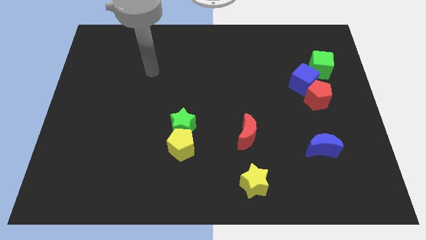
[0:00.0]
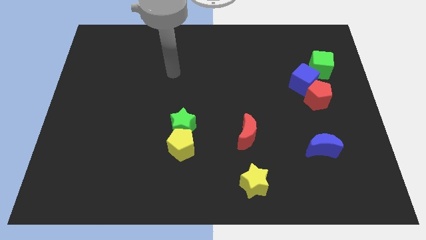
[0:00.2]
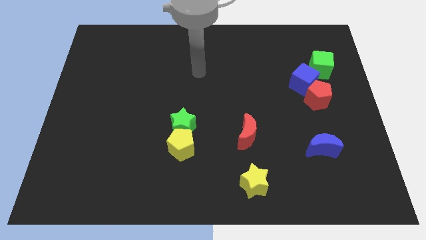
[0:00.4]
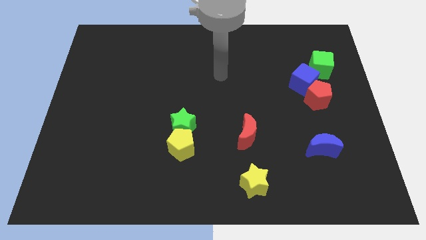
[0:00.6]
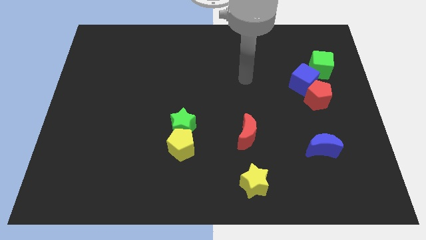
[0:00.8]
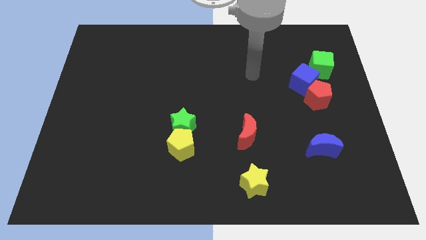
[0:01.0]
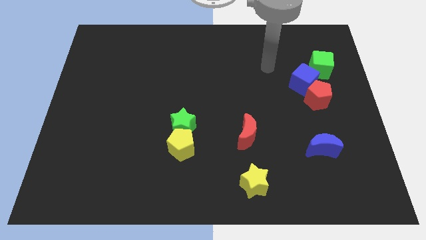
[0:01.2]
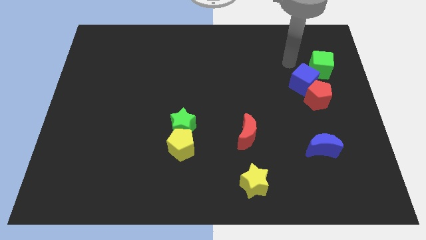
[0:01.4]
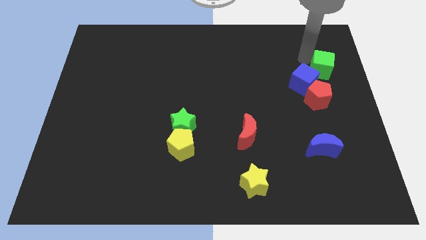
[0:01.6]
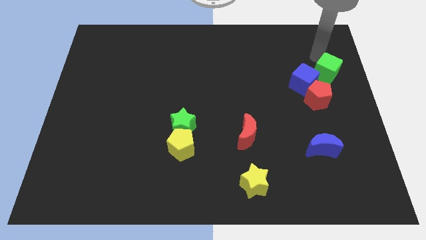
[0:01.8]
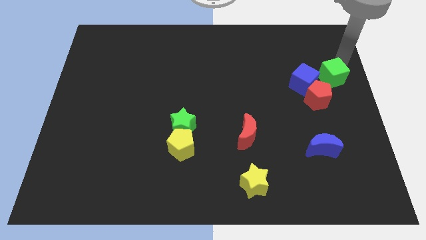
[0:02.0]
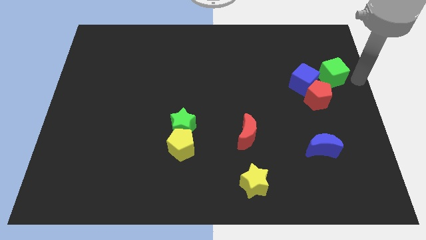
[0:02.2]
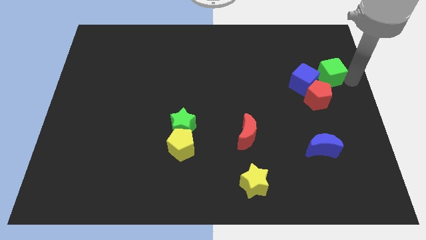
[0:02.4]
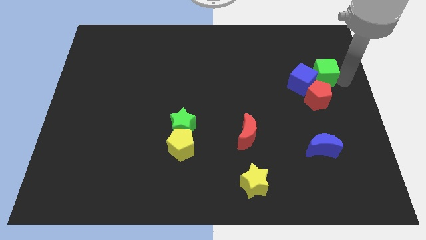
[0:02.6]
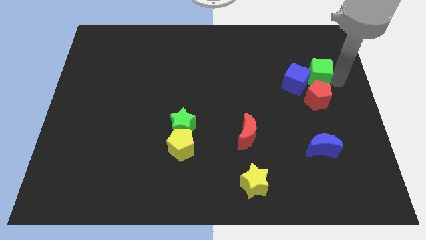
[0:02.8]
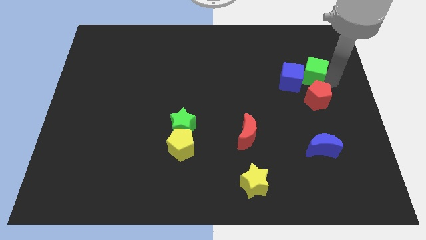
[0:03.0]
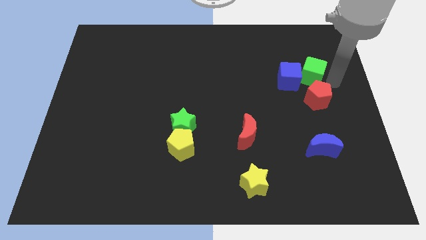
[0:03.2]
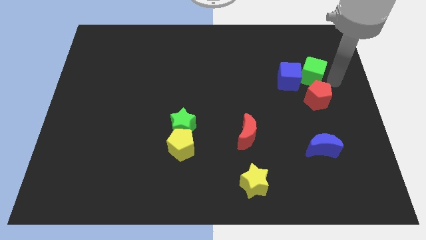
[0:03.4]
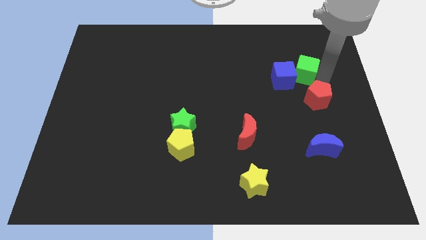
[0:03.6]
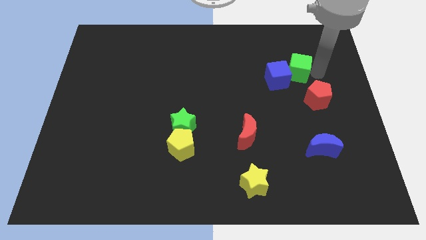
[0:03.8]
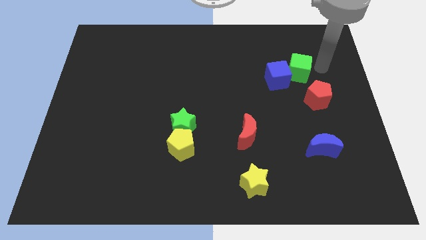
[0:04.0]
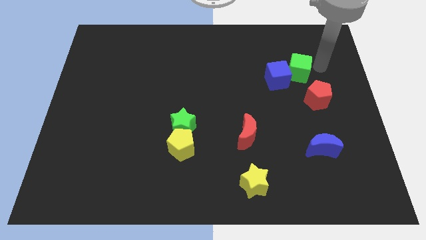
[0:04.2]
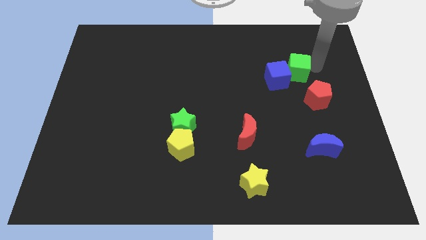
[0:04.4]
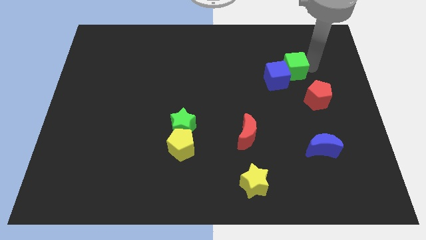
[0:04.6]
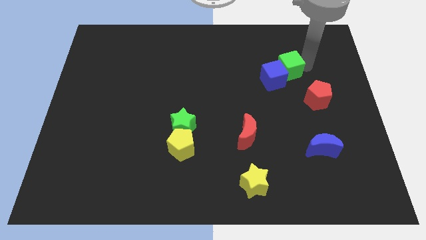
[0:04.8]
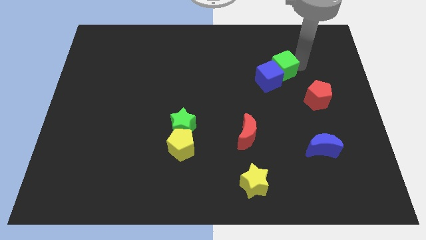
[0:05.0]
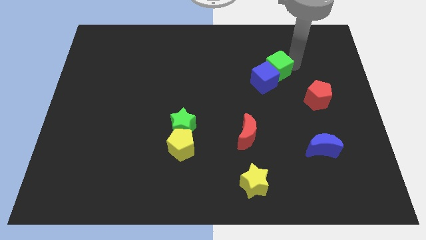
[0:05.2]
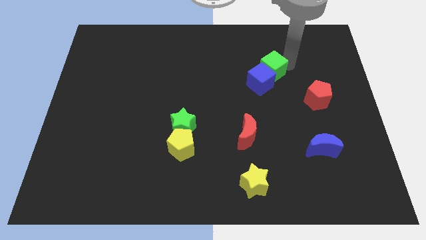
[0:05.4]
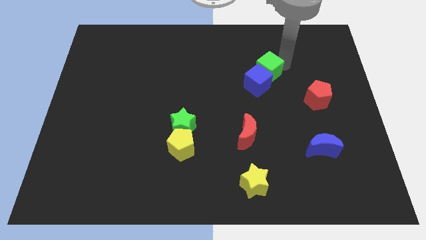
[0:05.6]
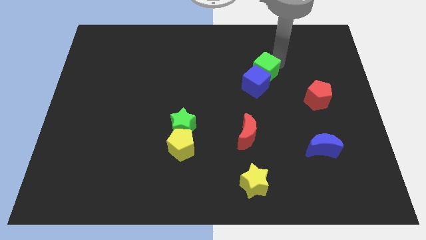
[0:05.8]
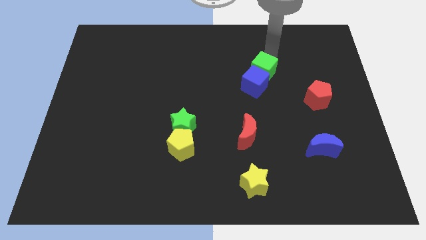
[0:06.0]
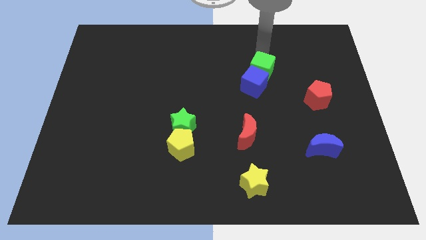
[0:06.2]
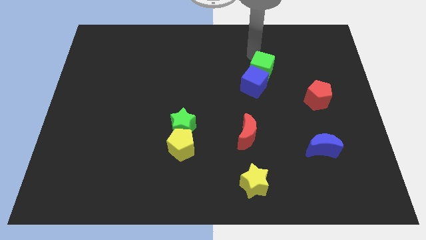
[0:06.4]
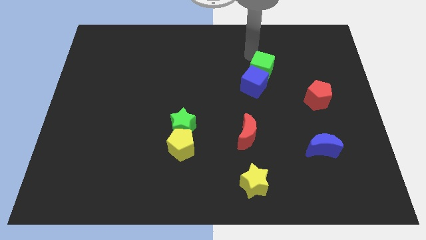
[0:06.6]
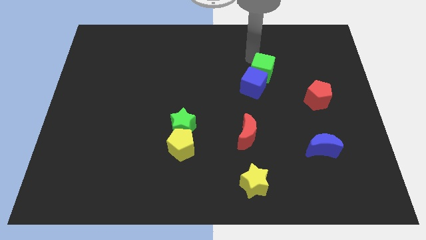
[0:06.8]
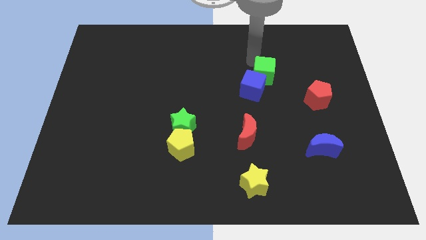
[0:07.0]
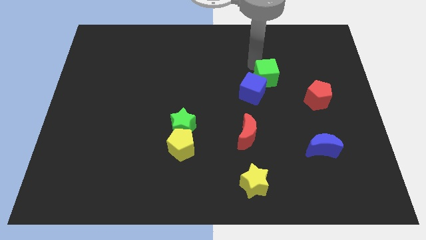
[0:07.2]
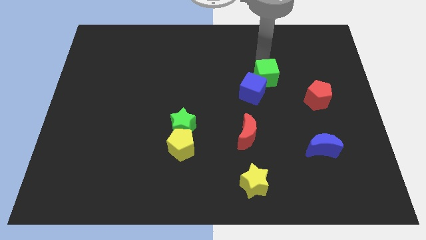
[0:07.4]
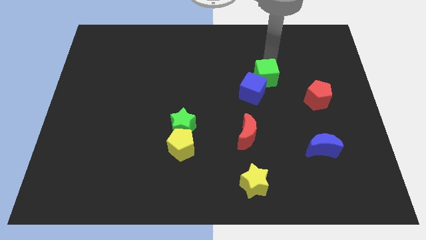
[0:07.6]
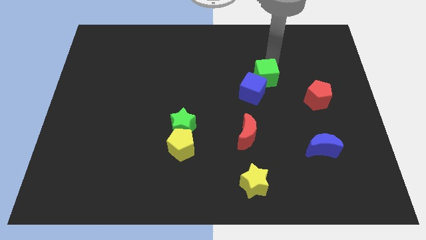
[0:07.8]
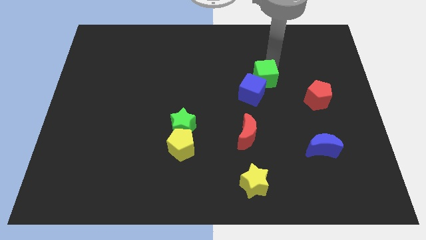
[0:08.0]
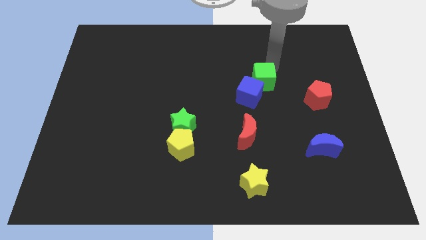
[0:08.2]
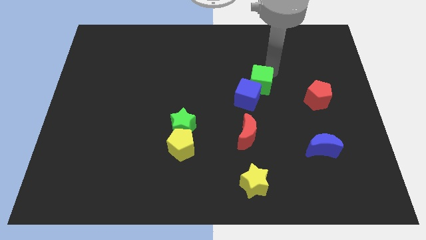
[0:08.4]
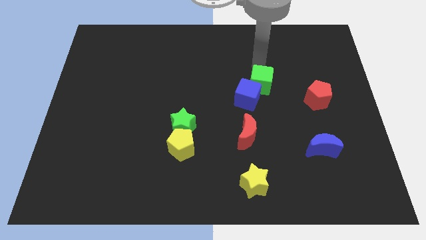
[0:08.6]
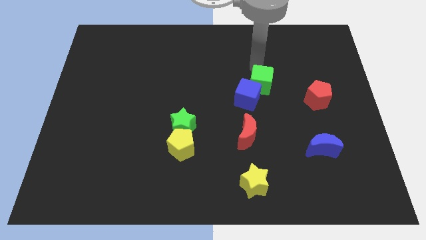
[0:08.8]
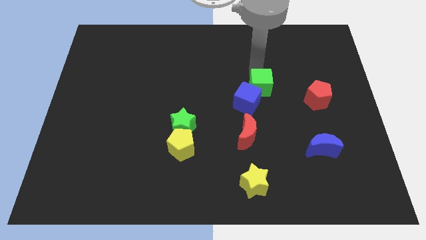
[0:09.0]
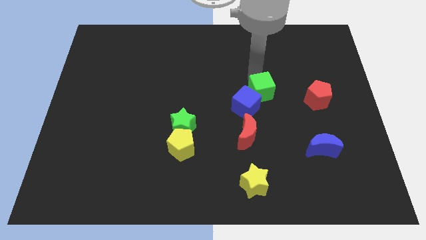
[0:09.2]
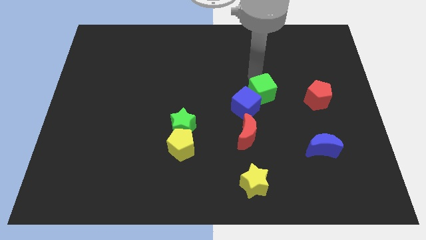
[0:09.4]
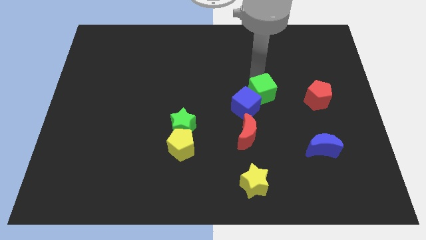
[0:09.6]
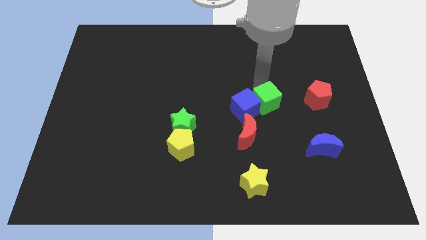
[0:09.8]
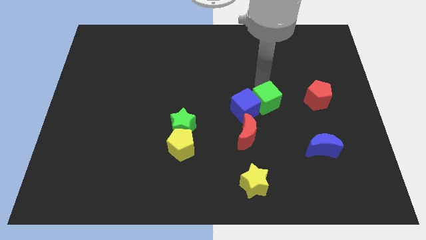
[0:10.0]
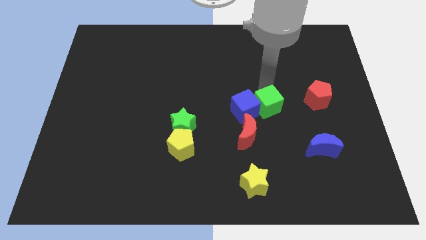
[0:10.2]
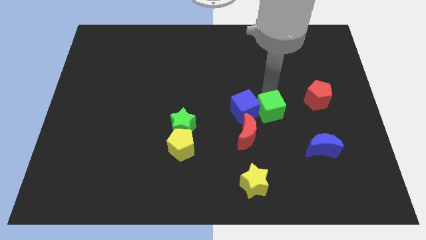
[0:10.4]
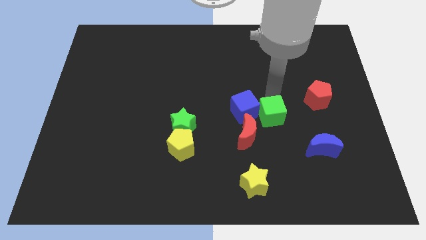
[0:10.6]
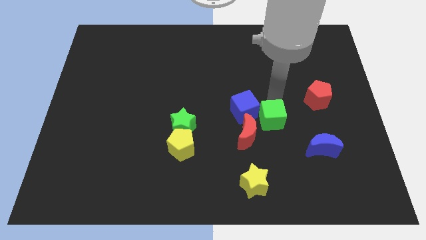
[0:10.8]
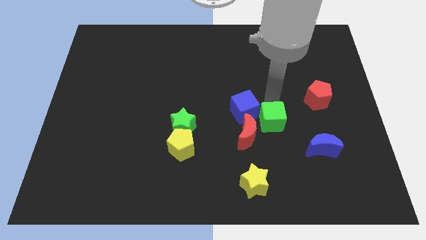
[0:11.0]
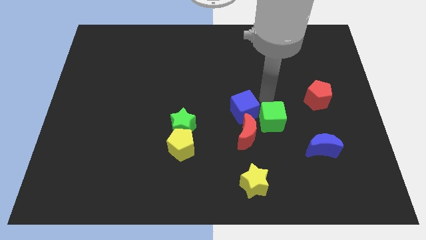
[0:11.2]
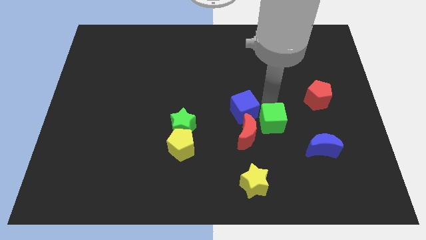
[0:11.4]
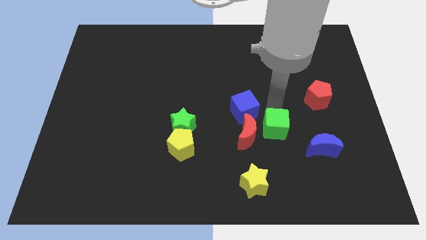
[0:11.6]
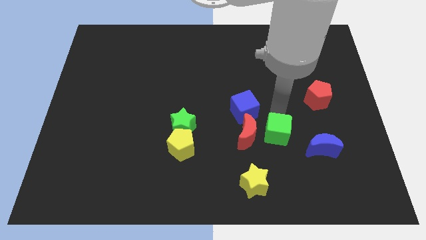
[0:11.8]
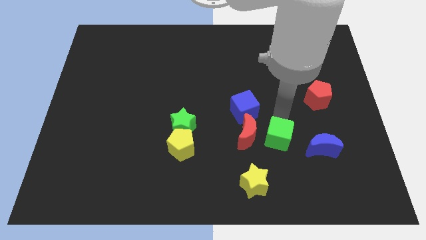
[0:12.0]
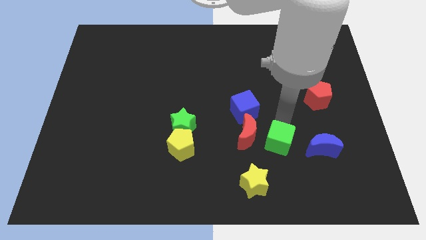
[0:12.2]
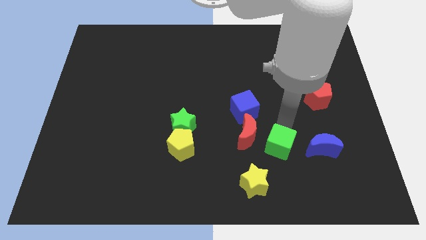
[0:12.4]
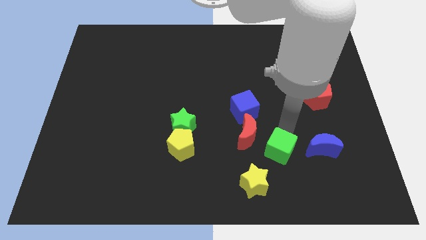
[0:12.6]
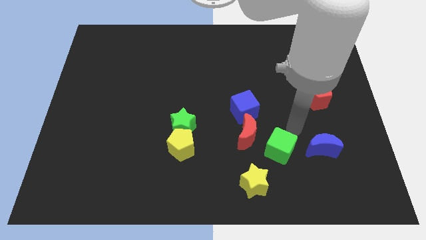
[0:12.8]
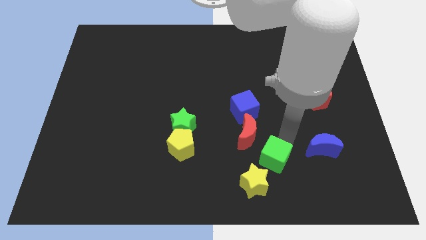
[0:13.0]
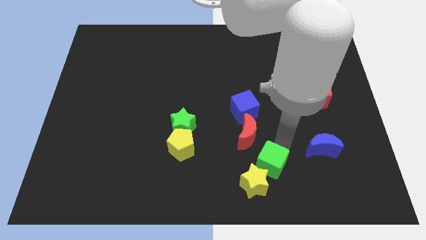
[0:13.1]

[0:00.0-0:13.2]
push the green cube towards the yellow star
